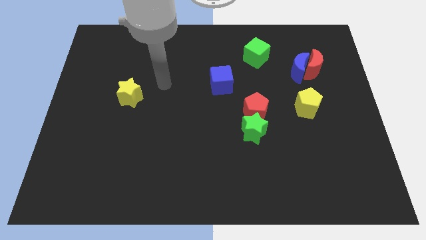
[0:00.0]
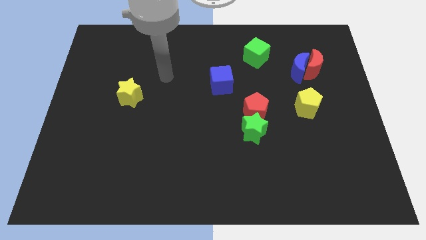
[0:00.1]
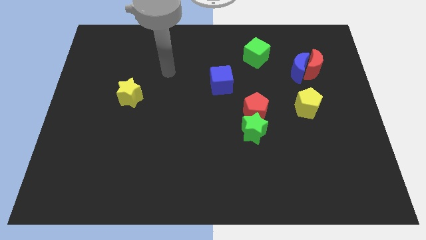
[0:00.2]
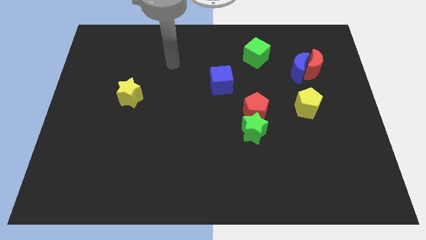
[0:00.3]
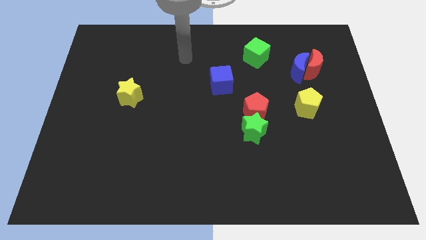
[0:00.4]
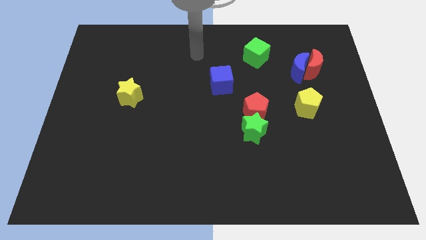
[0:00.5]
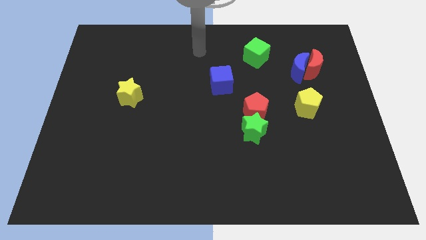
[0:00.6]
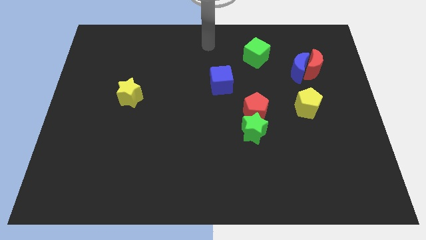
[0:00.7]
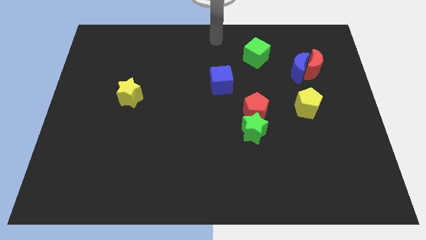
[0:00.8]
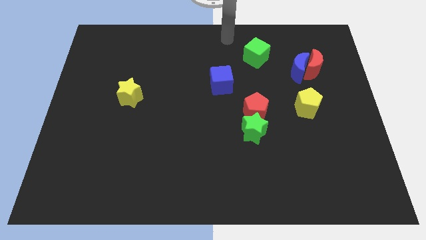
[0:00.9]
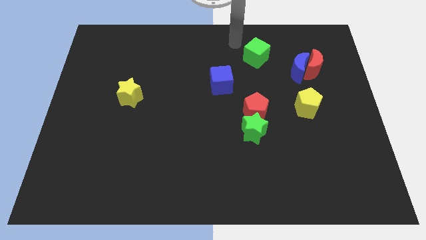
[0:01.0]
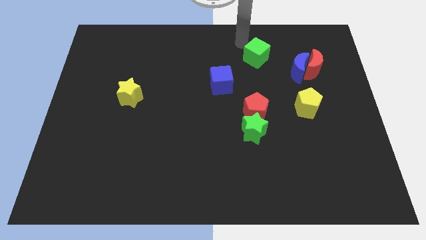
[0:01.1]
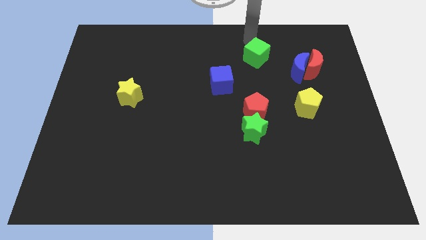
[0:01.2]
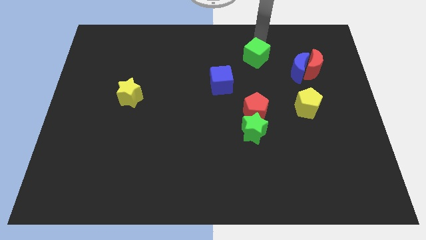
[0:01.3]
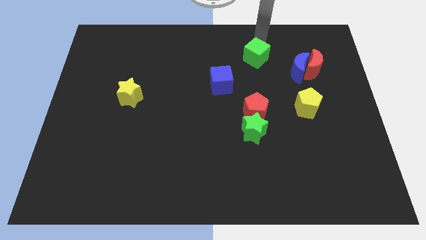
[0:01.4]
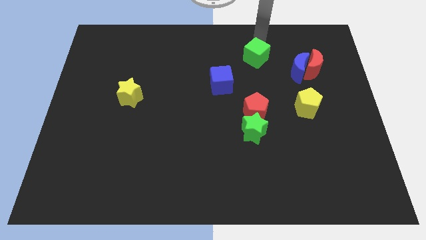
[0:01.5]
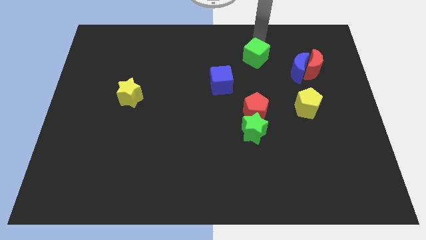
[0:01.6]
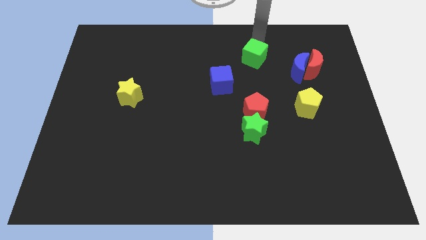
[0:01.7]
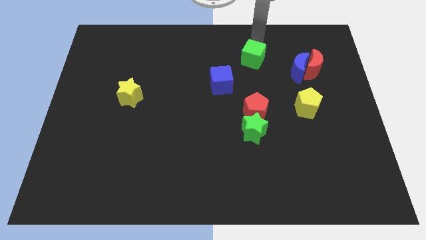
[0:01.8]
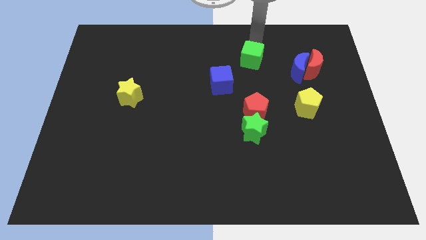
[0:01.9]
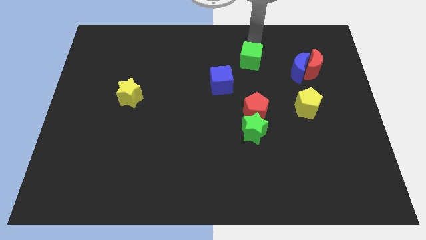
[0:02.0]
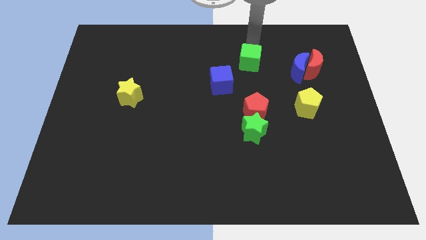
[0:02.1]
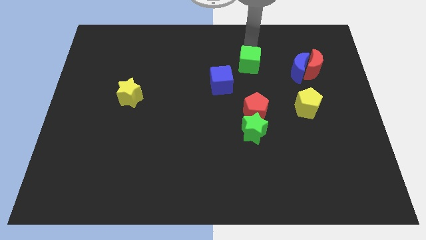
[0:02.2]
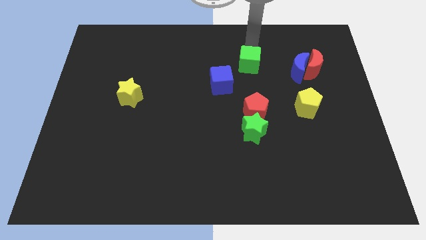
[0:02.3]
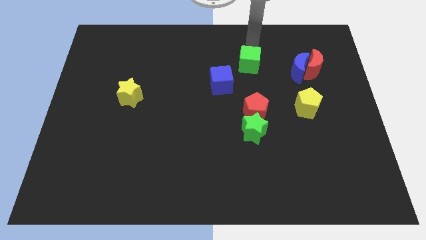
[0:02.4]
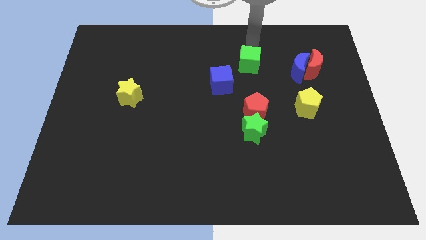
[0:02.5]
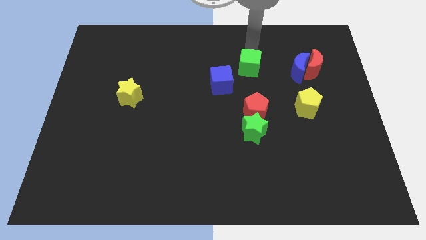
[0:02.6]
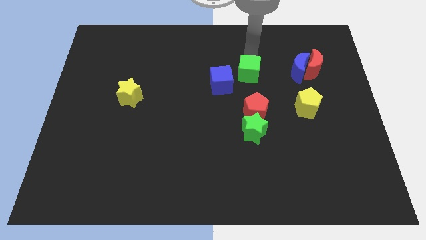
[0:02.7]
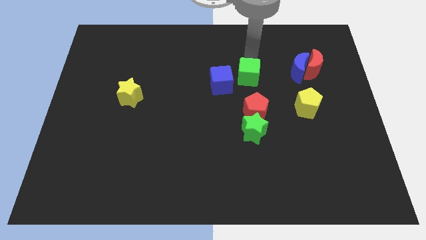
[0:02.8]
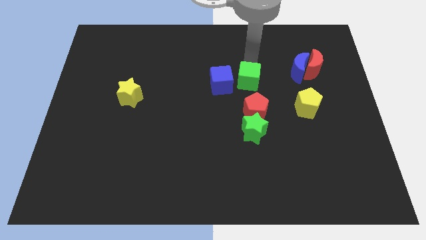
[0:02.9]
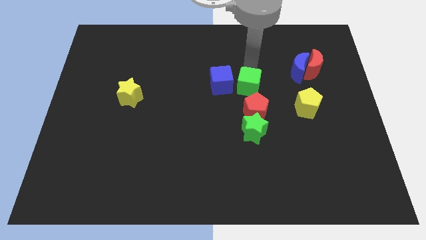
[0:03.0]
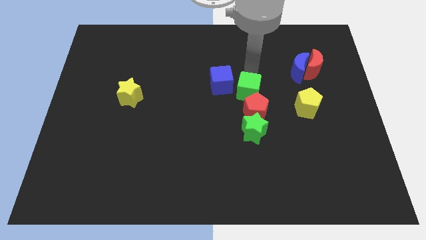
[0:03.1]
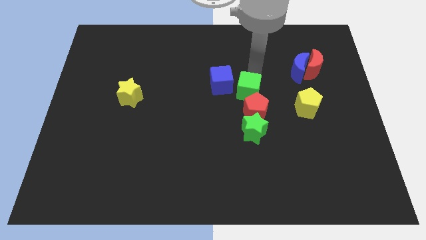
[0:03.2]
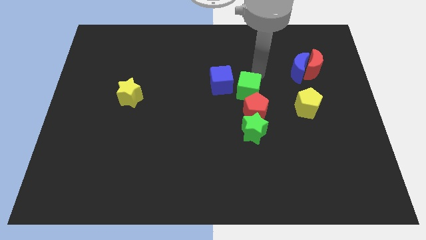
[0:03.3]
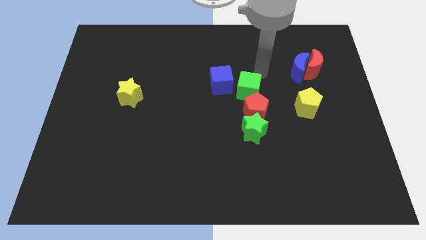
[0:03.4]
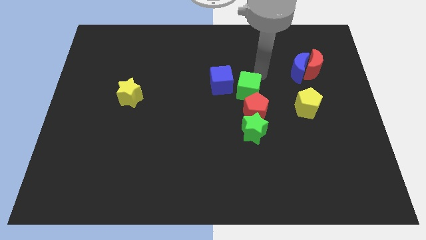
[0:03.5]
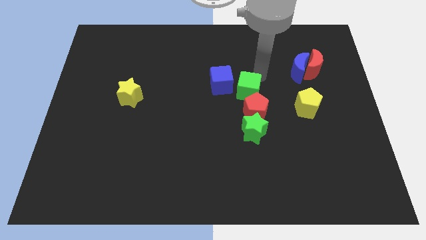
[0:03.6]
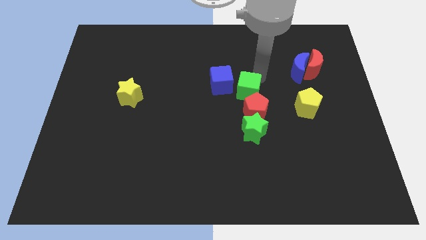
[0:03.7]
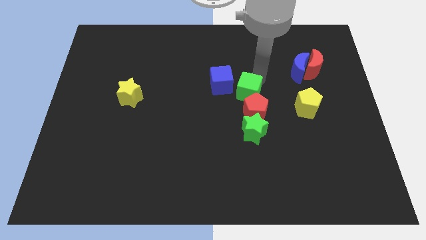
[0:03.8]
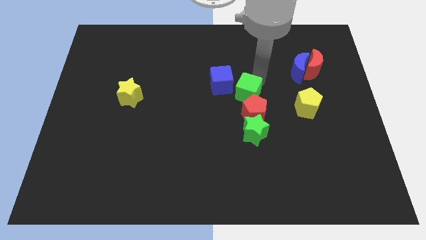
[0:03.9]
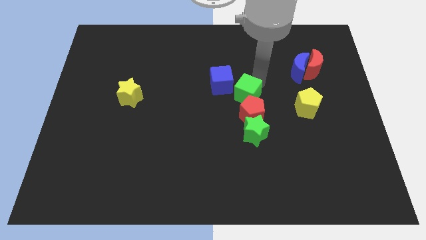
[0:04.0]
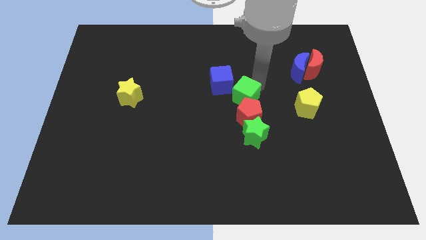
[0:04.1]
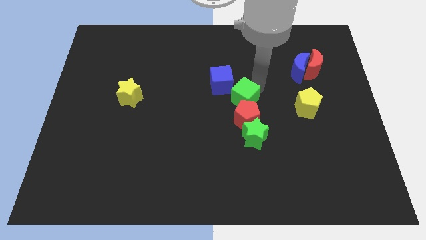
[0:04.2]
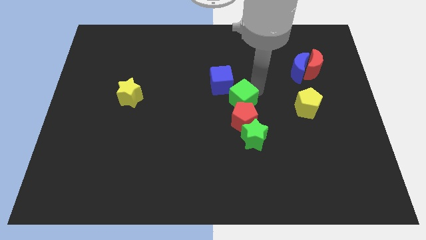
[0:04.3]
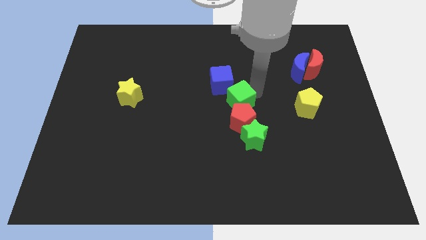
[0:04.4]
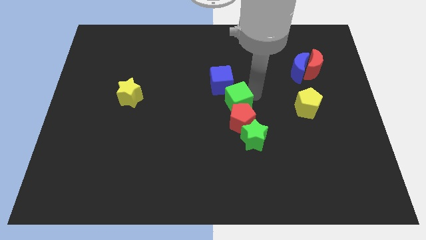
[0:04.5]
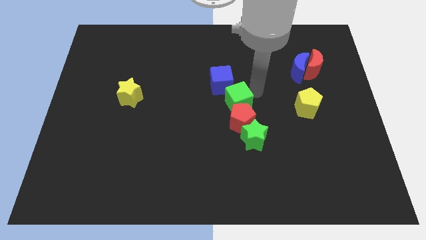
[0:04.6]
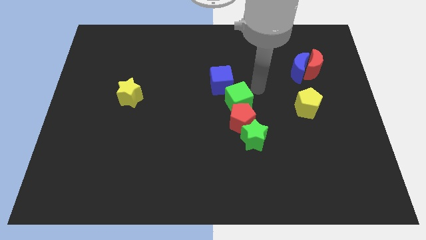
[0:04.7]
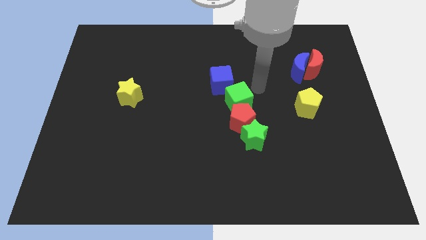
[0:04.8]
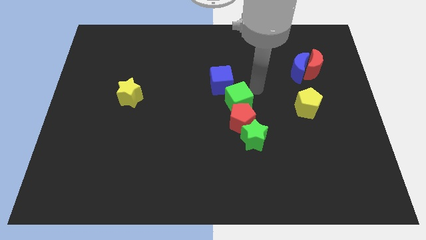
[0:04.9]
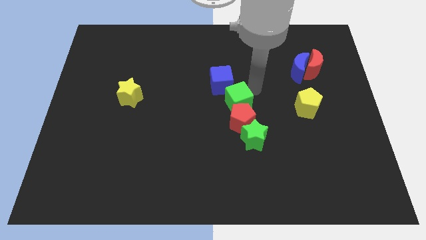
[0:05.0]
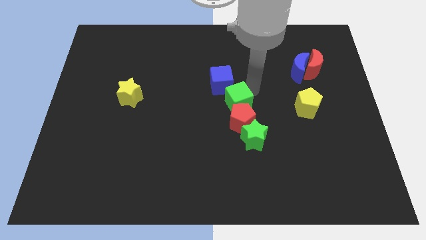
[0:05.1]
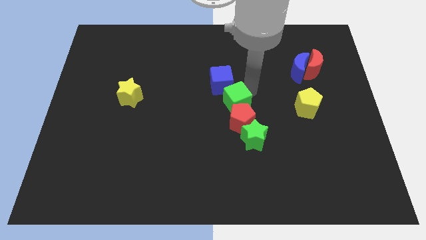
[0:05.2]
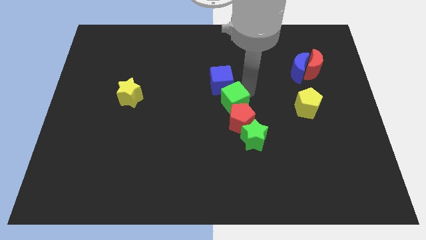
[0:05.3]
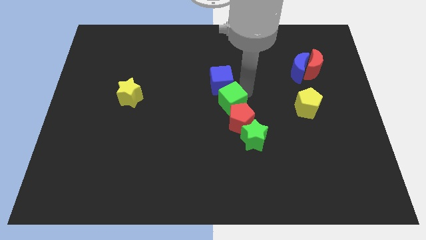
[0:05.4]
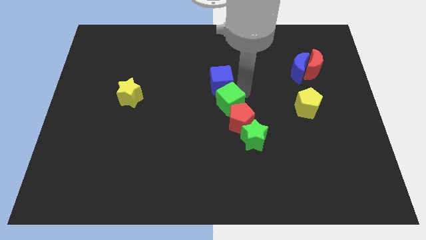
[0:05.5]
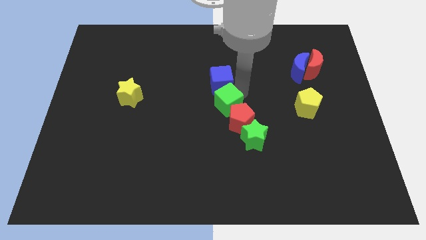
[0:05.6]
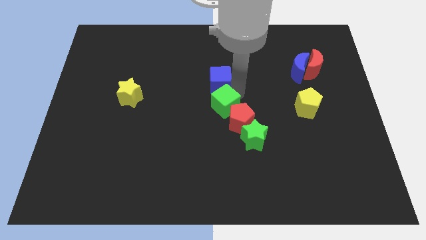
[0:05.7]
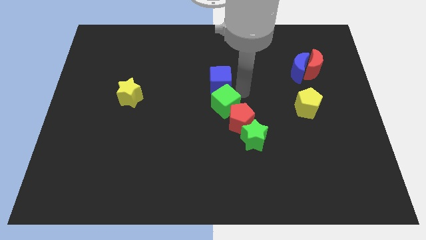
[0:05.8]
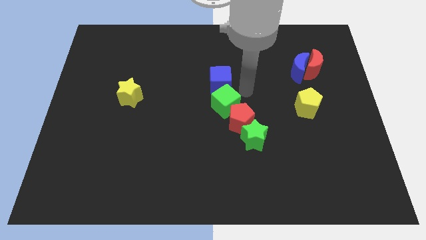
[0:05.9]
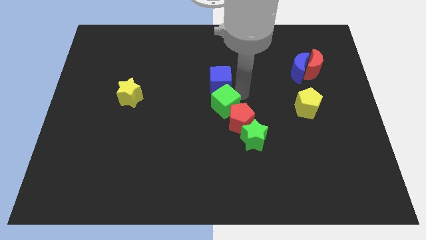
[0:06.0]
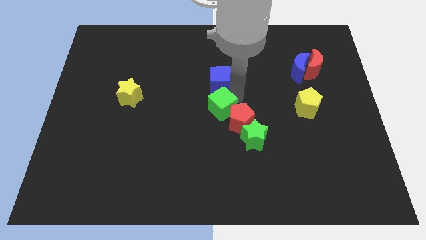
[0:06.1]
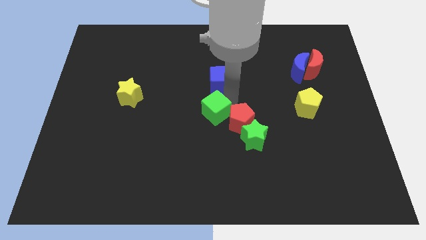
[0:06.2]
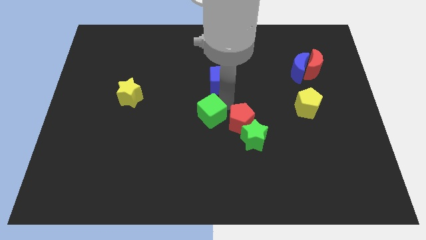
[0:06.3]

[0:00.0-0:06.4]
push the green cube diagonally downwards and left

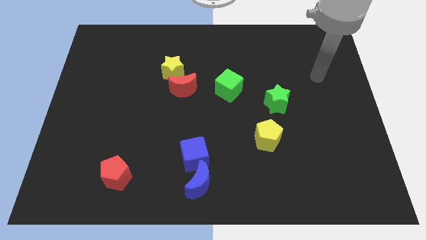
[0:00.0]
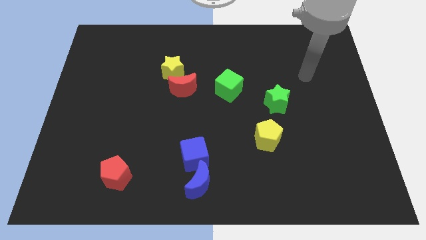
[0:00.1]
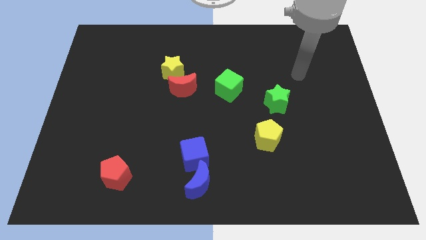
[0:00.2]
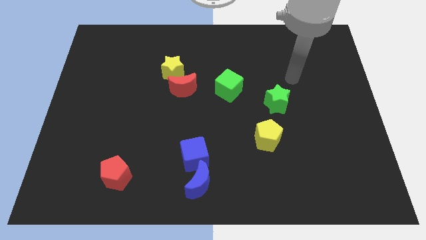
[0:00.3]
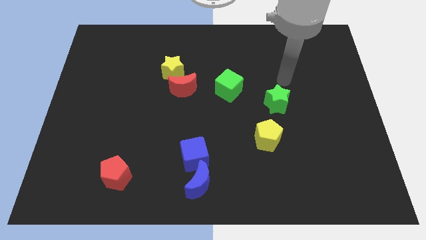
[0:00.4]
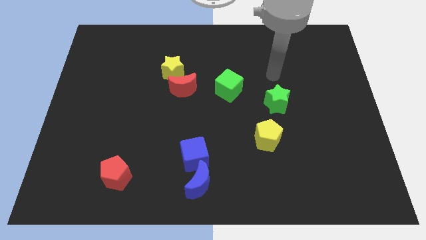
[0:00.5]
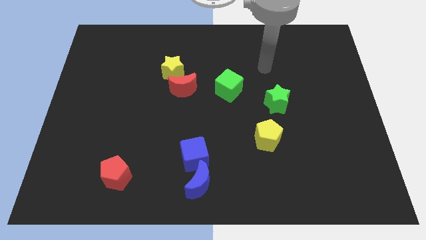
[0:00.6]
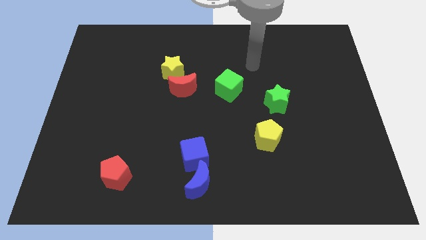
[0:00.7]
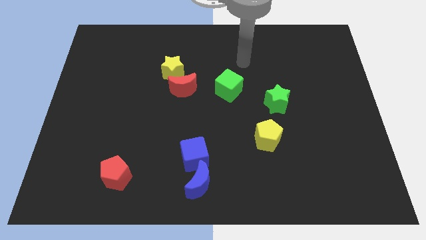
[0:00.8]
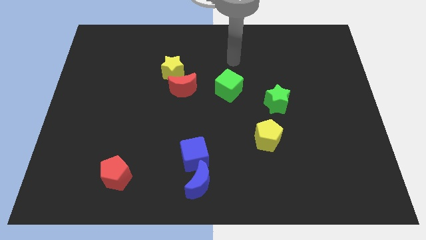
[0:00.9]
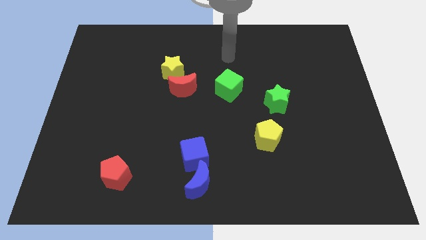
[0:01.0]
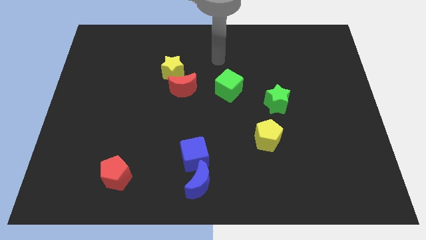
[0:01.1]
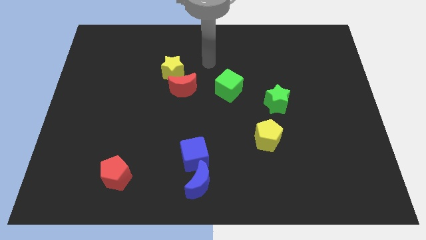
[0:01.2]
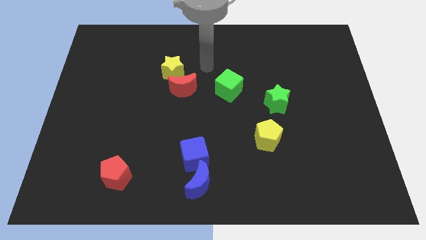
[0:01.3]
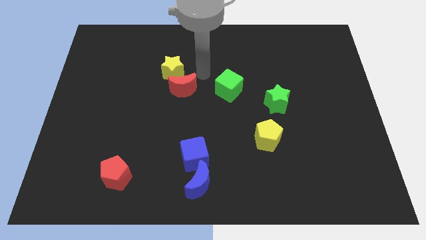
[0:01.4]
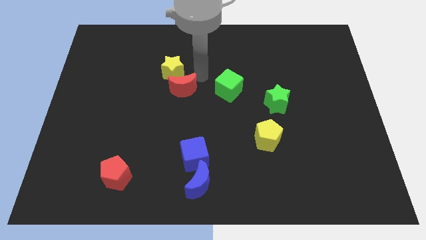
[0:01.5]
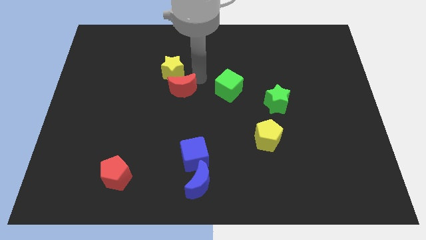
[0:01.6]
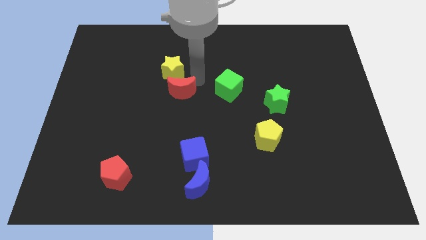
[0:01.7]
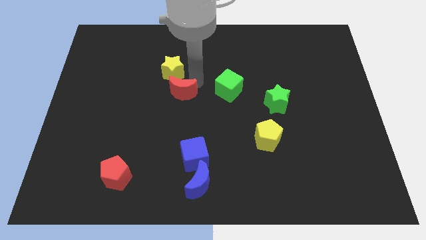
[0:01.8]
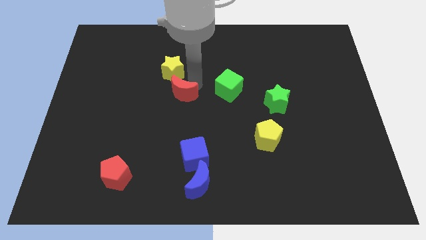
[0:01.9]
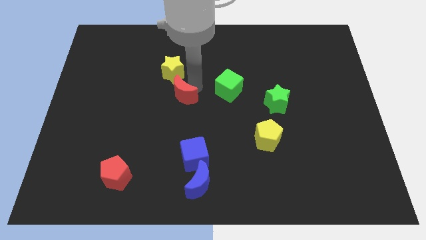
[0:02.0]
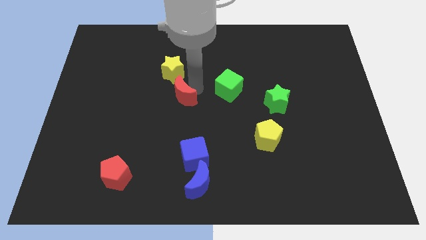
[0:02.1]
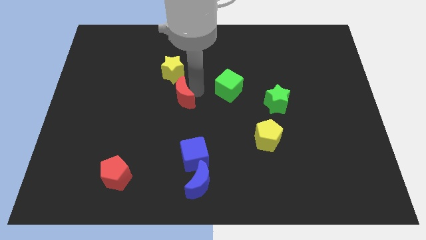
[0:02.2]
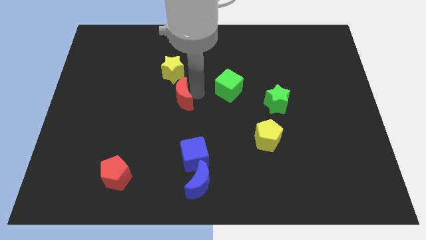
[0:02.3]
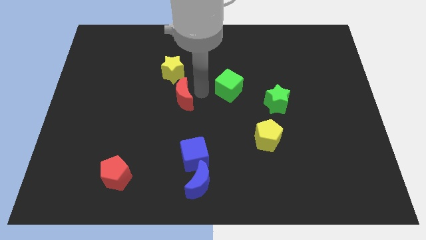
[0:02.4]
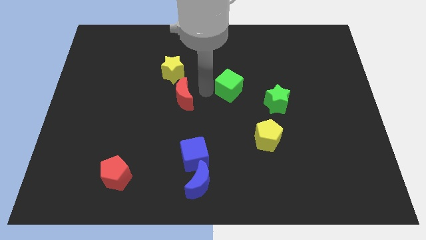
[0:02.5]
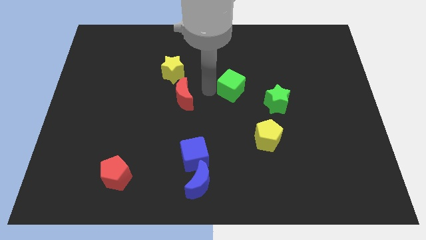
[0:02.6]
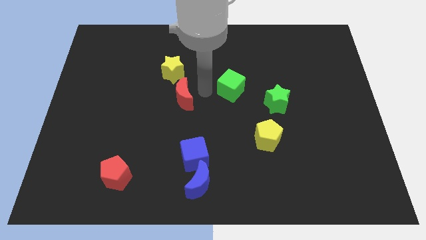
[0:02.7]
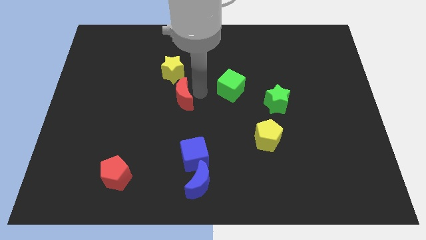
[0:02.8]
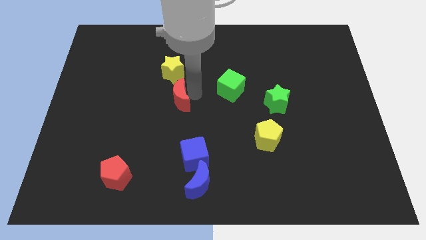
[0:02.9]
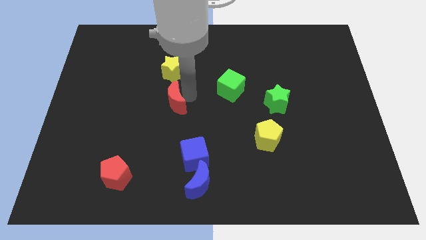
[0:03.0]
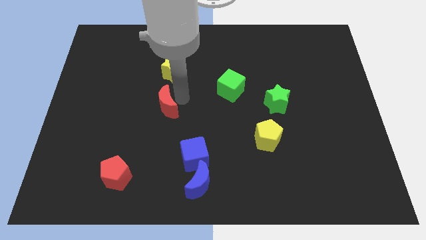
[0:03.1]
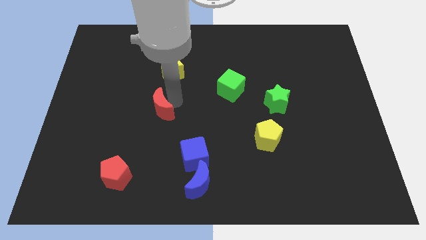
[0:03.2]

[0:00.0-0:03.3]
slightly move the red moon down and to the left
